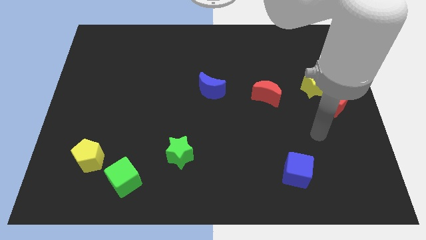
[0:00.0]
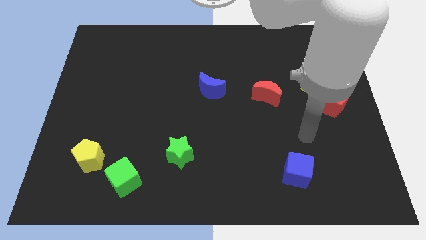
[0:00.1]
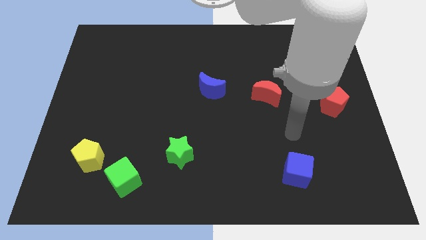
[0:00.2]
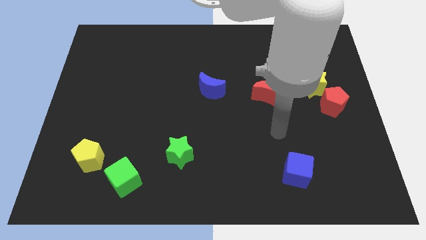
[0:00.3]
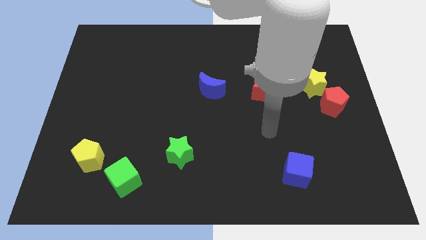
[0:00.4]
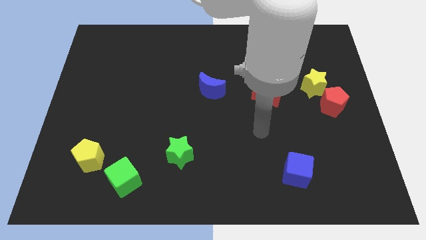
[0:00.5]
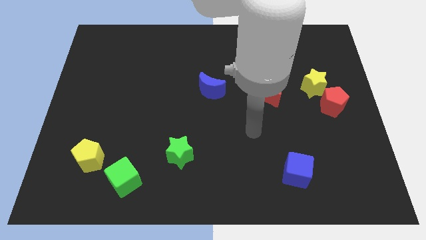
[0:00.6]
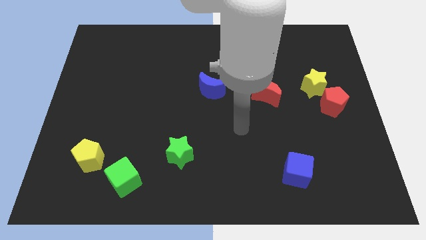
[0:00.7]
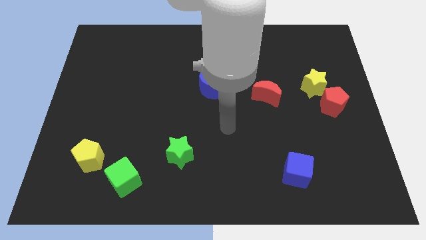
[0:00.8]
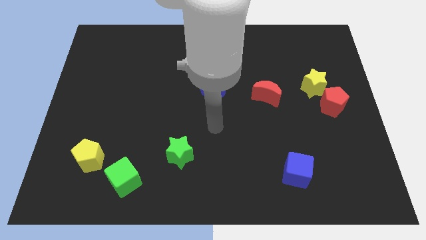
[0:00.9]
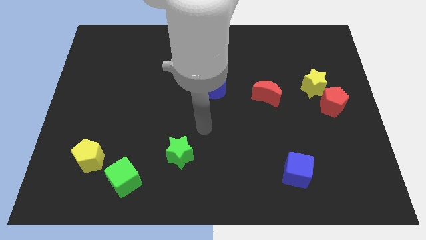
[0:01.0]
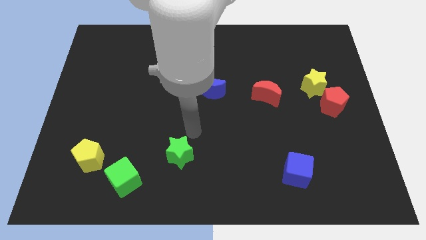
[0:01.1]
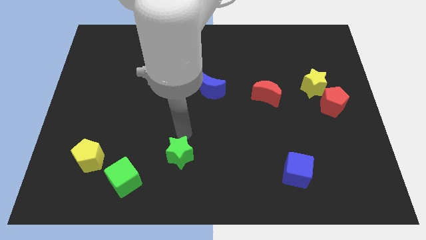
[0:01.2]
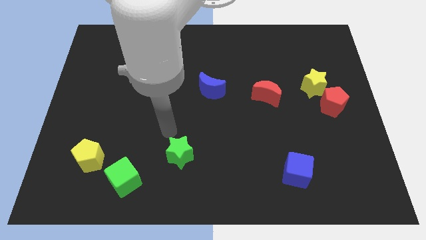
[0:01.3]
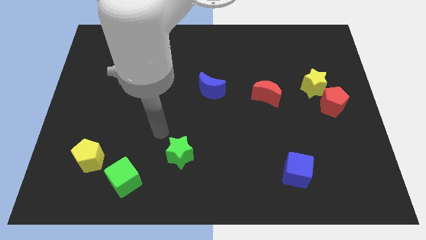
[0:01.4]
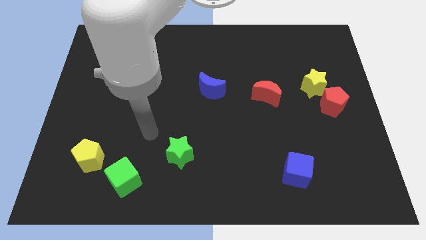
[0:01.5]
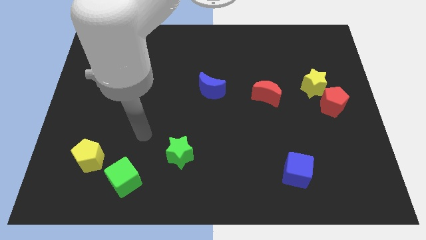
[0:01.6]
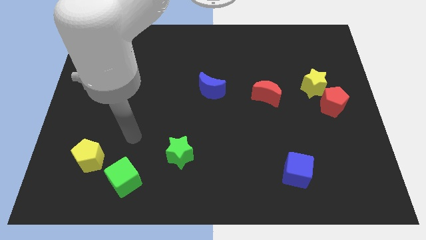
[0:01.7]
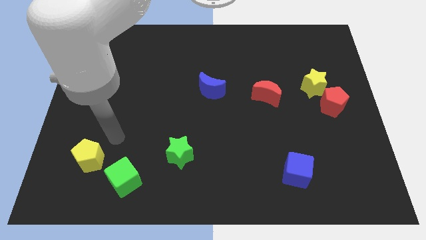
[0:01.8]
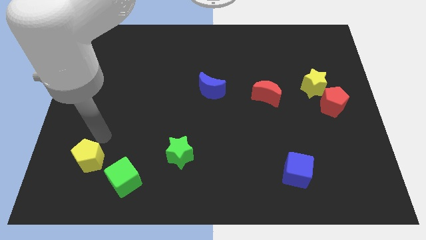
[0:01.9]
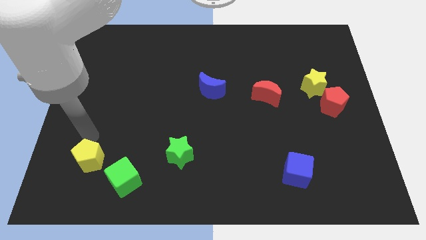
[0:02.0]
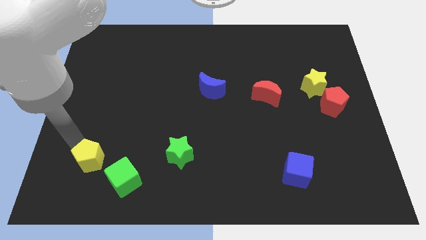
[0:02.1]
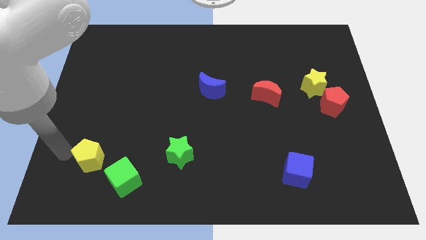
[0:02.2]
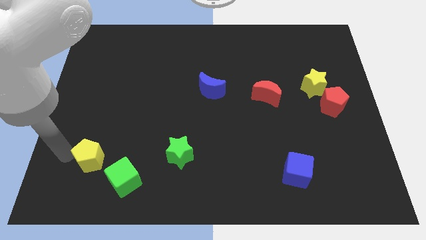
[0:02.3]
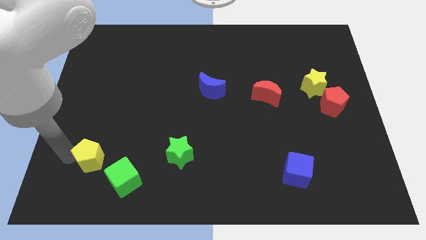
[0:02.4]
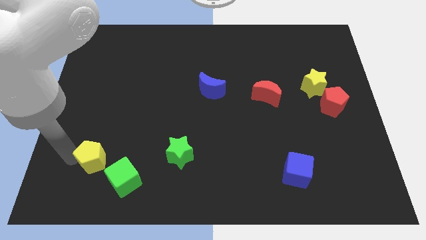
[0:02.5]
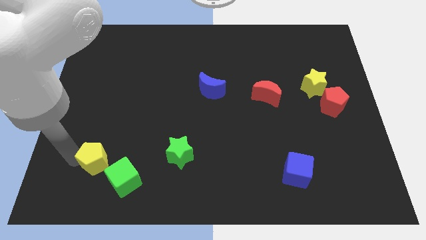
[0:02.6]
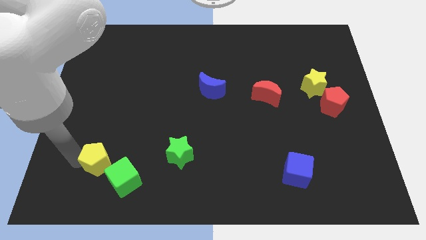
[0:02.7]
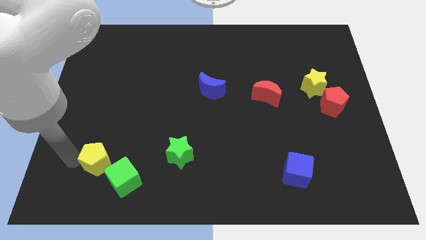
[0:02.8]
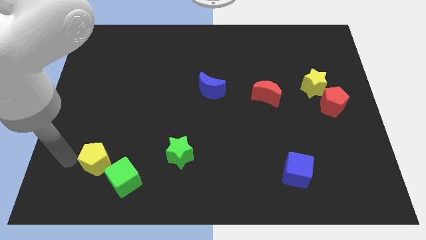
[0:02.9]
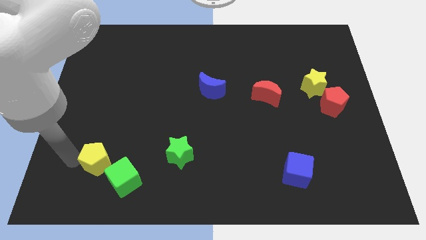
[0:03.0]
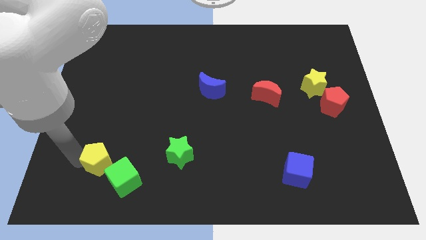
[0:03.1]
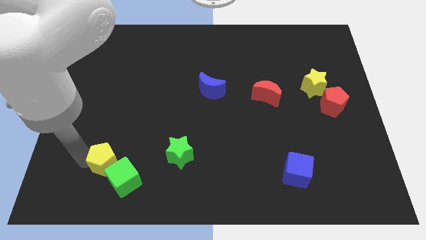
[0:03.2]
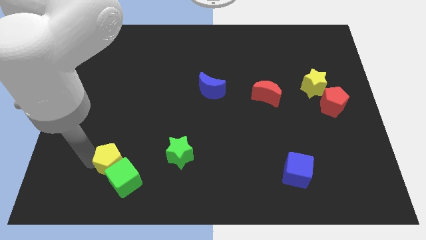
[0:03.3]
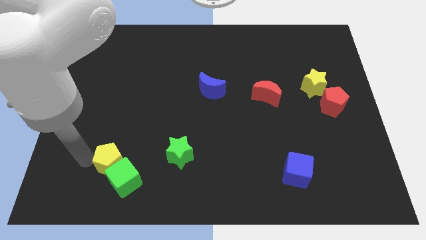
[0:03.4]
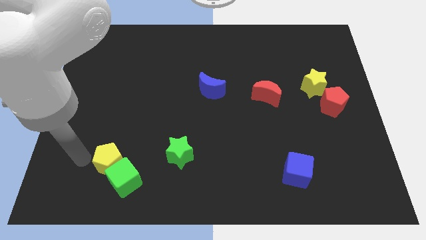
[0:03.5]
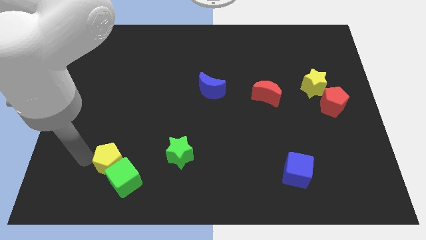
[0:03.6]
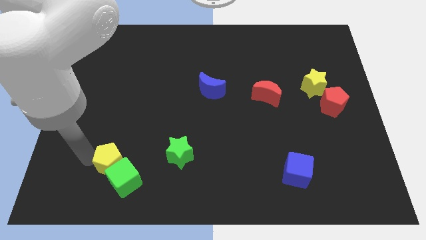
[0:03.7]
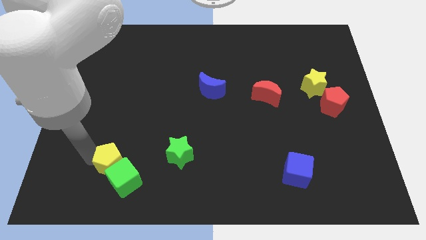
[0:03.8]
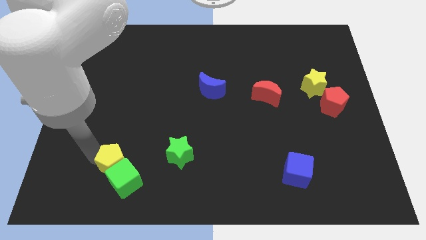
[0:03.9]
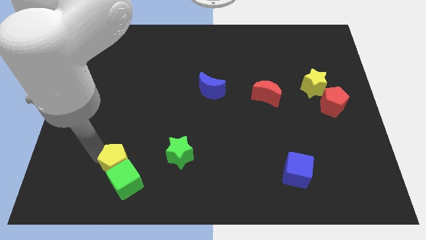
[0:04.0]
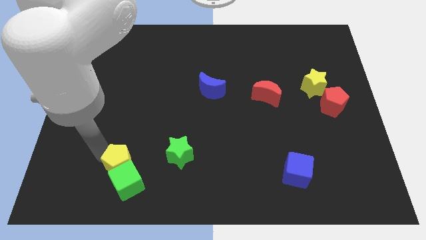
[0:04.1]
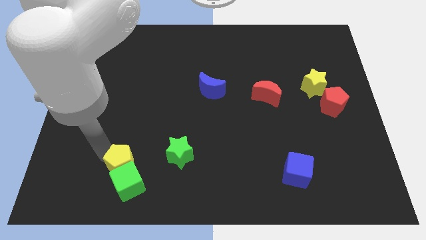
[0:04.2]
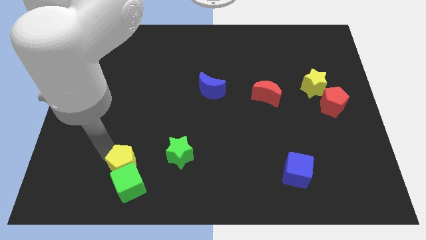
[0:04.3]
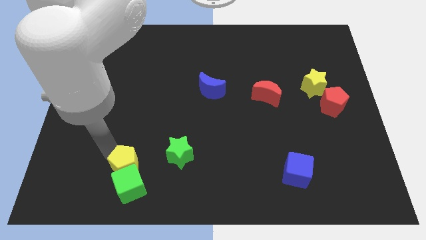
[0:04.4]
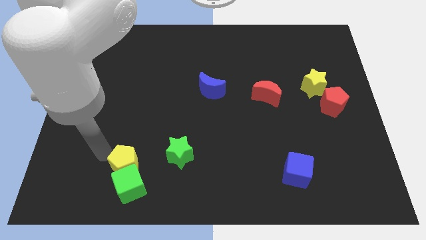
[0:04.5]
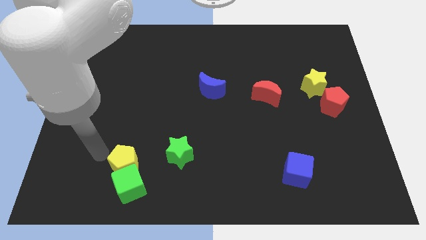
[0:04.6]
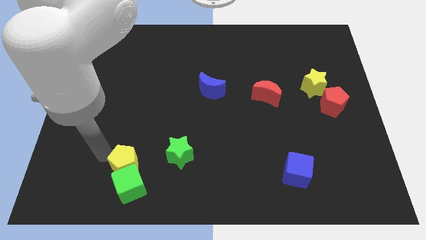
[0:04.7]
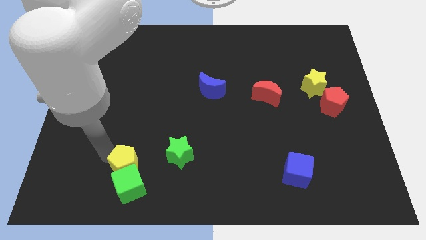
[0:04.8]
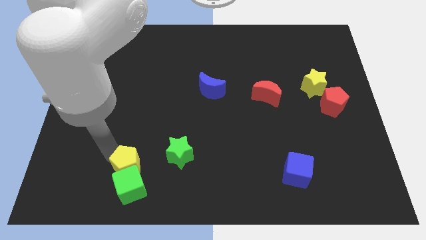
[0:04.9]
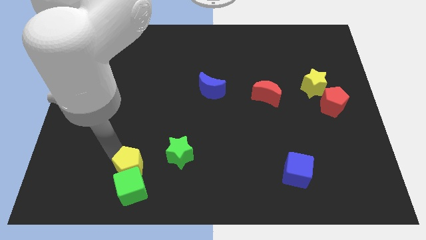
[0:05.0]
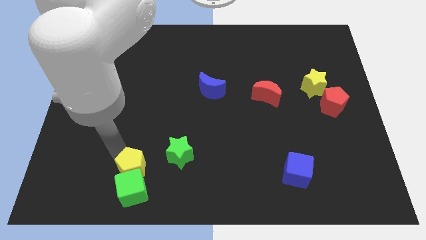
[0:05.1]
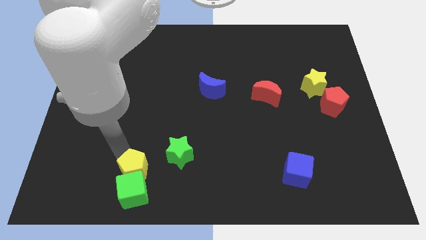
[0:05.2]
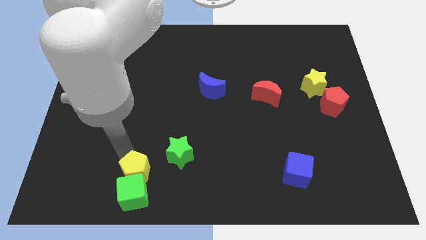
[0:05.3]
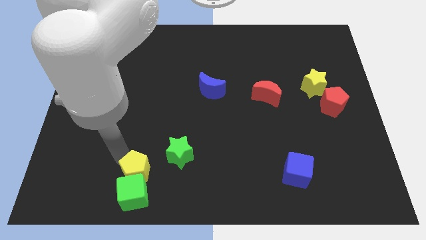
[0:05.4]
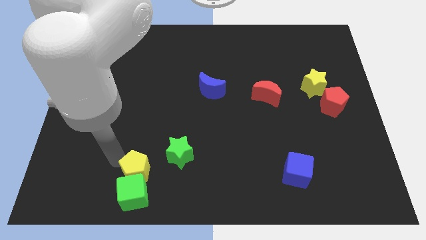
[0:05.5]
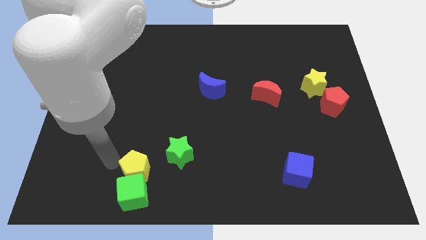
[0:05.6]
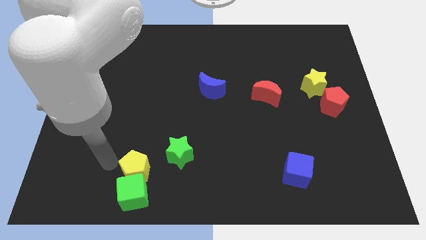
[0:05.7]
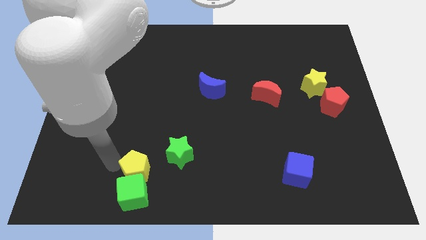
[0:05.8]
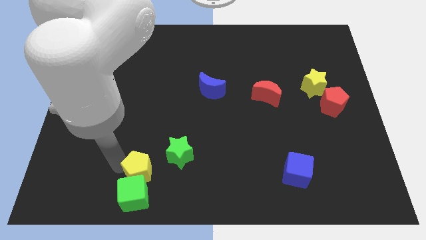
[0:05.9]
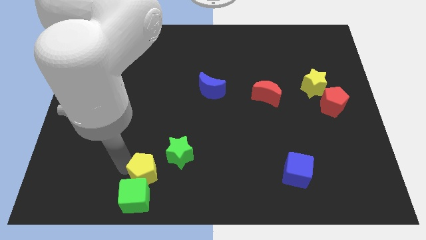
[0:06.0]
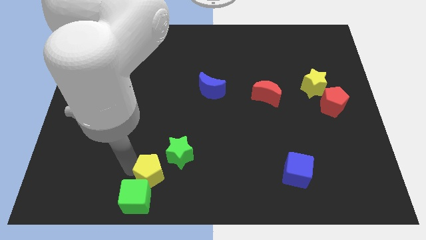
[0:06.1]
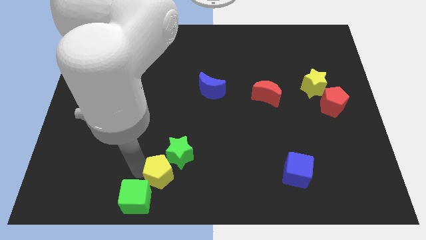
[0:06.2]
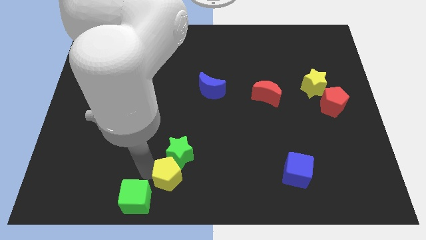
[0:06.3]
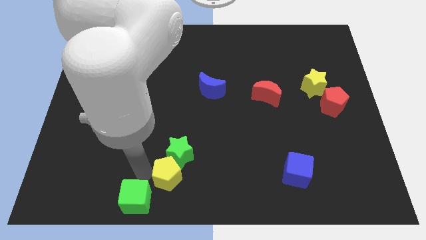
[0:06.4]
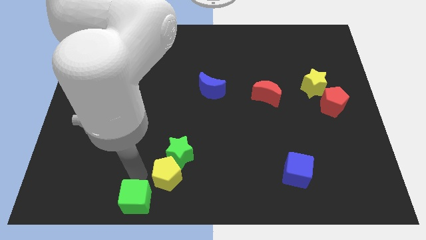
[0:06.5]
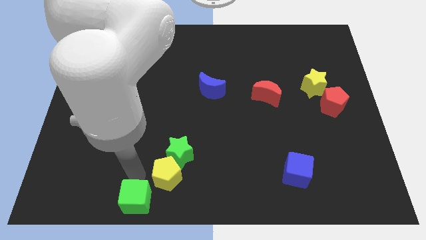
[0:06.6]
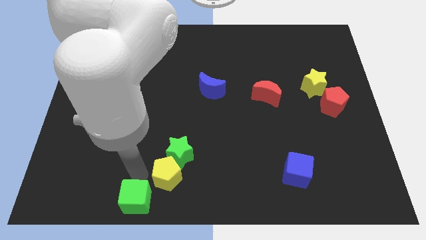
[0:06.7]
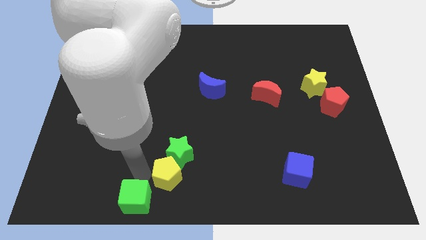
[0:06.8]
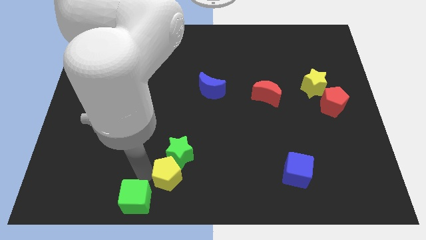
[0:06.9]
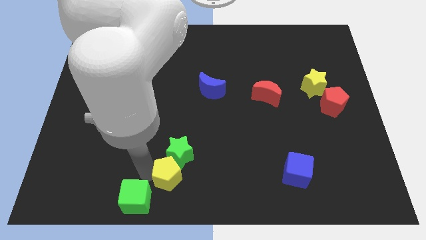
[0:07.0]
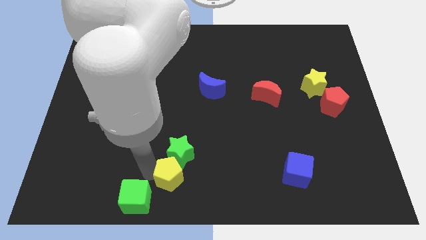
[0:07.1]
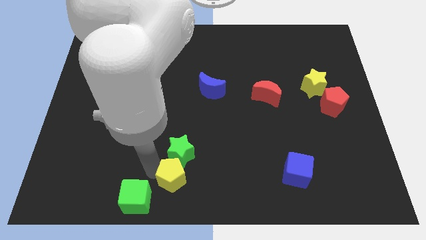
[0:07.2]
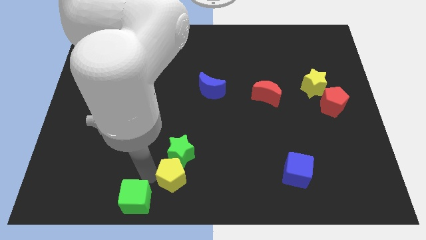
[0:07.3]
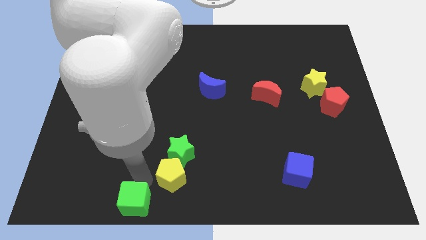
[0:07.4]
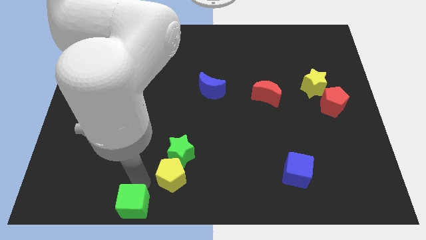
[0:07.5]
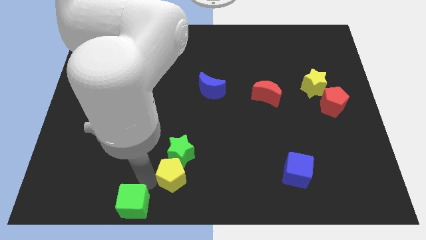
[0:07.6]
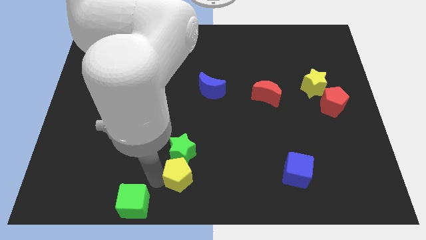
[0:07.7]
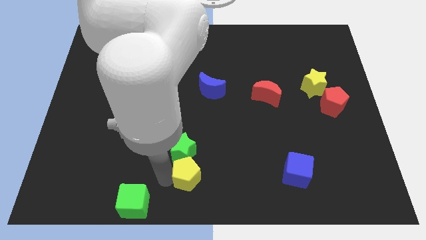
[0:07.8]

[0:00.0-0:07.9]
slide the yellow pentagon to the right
